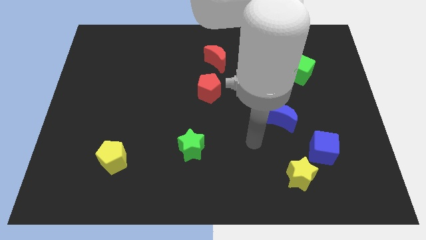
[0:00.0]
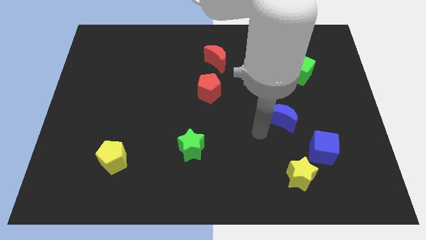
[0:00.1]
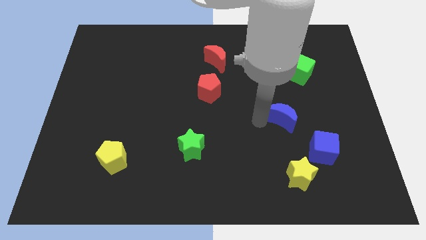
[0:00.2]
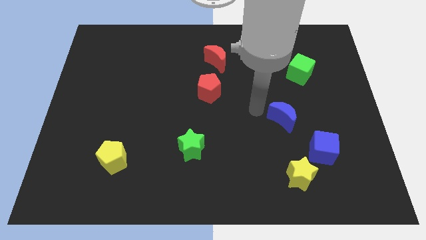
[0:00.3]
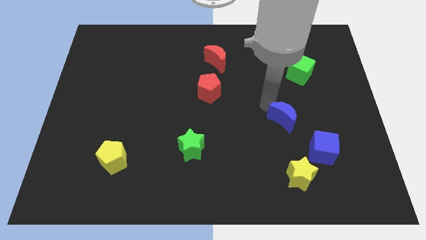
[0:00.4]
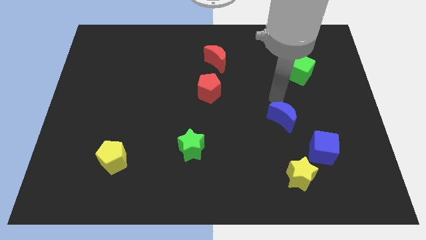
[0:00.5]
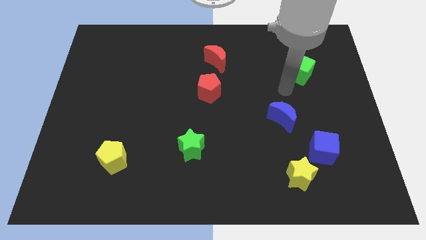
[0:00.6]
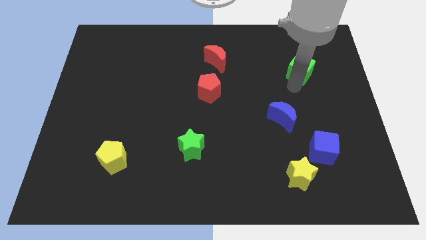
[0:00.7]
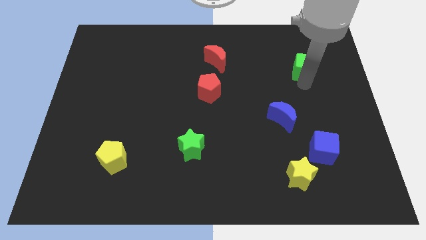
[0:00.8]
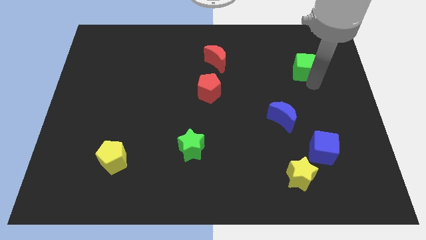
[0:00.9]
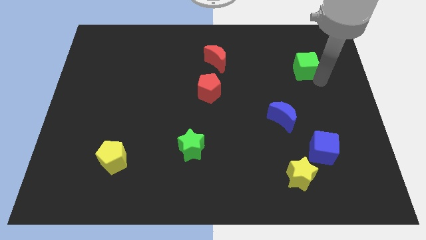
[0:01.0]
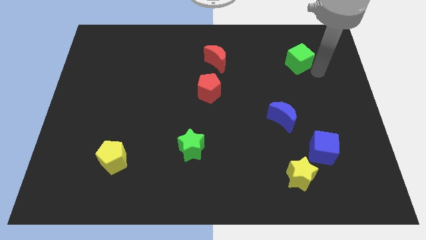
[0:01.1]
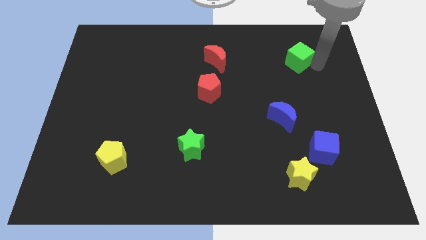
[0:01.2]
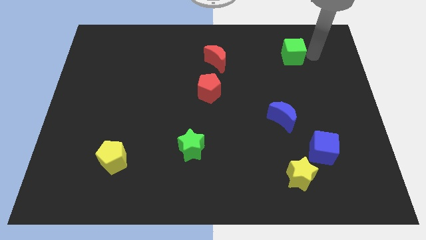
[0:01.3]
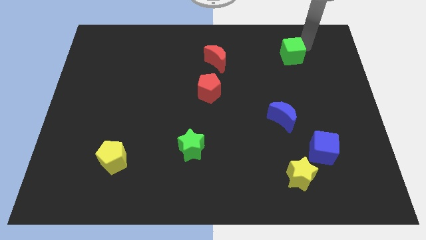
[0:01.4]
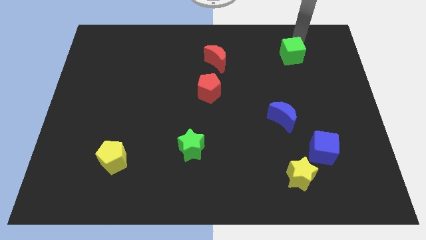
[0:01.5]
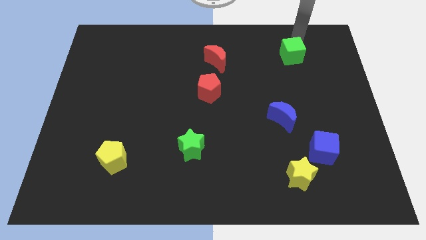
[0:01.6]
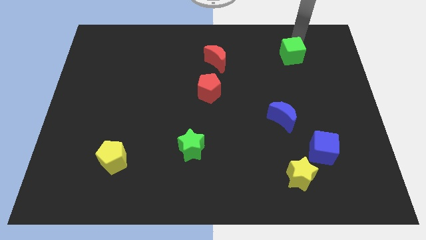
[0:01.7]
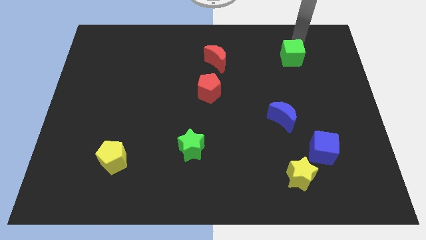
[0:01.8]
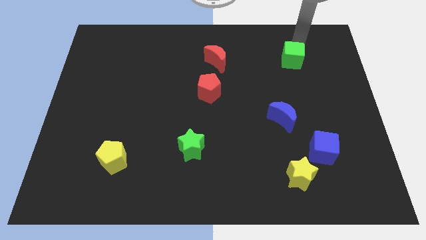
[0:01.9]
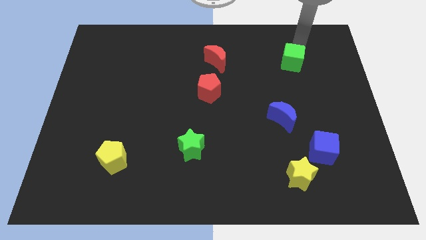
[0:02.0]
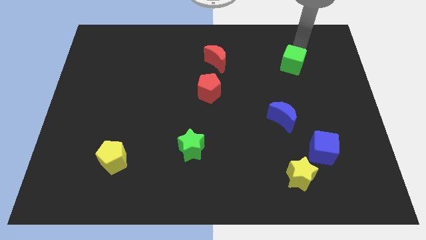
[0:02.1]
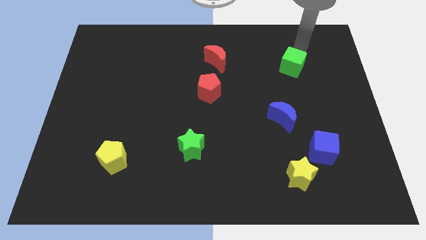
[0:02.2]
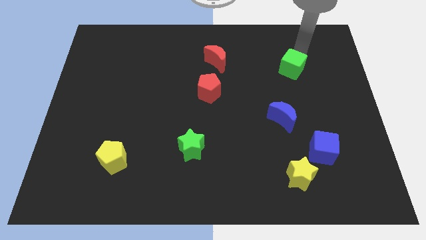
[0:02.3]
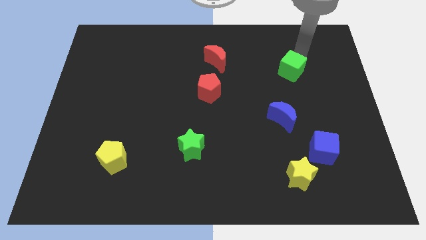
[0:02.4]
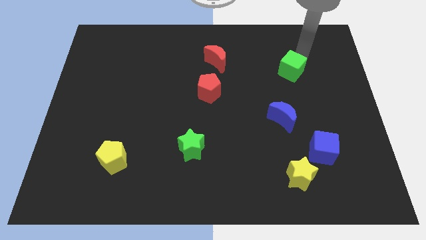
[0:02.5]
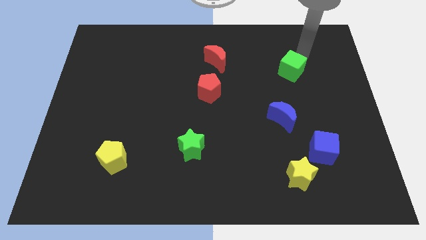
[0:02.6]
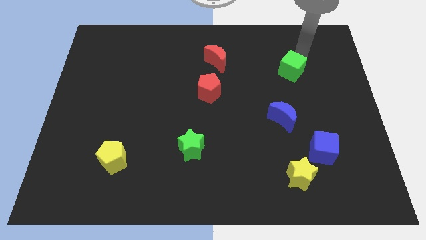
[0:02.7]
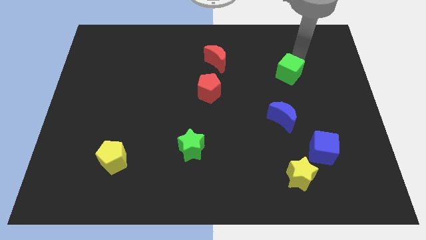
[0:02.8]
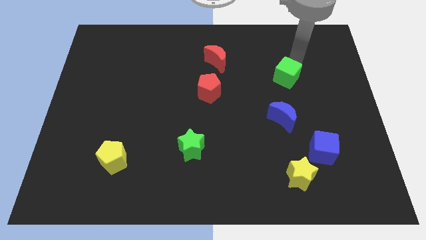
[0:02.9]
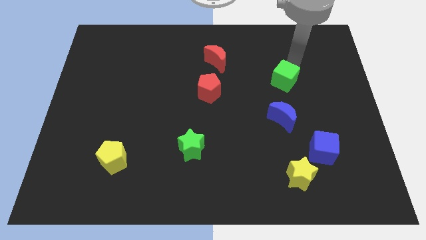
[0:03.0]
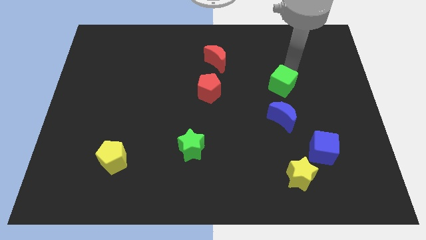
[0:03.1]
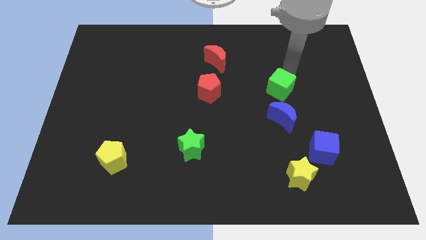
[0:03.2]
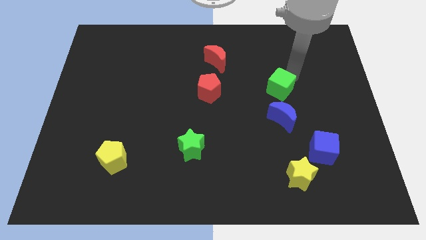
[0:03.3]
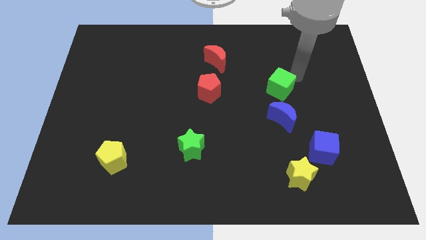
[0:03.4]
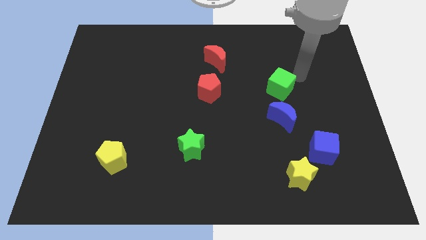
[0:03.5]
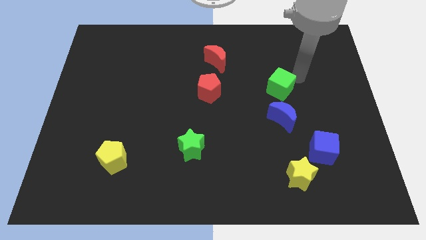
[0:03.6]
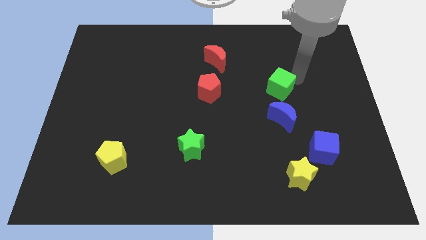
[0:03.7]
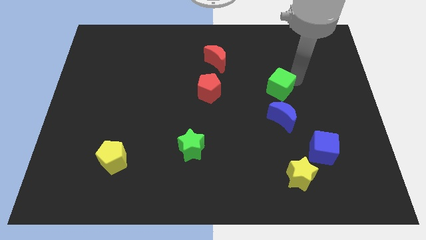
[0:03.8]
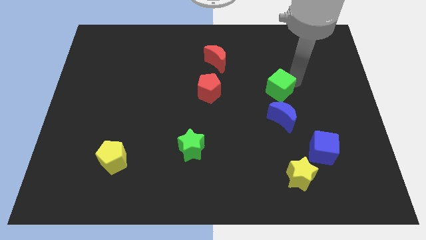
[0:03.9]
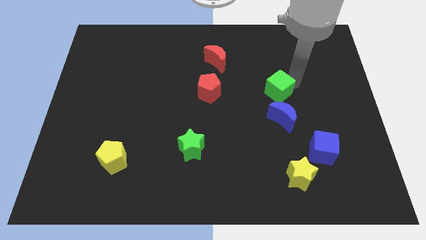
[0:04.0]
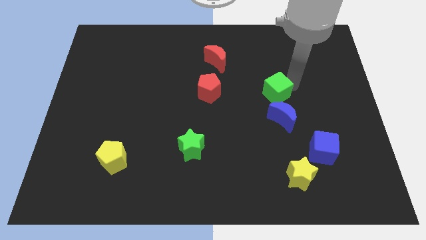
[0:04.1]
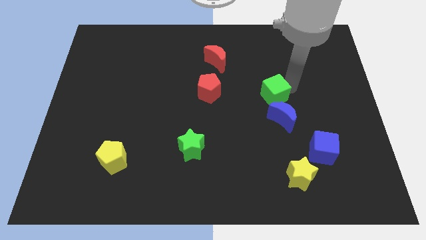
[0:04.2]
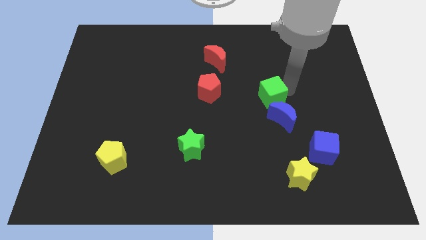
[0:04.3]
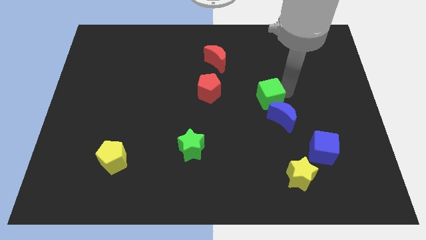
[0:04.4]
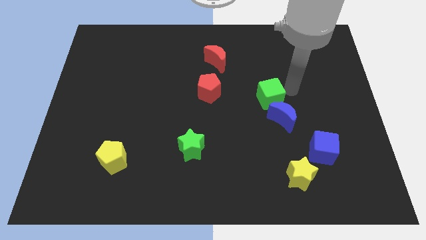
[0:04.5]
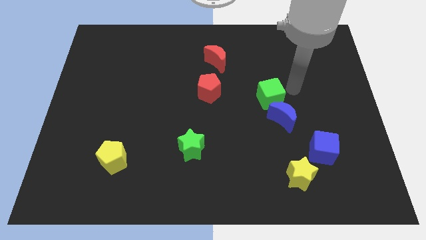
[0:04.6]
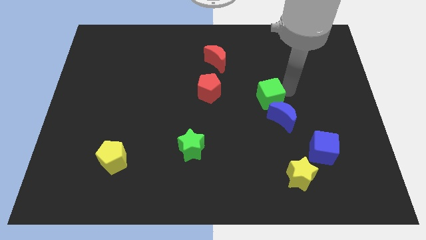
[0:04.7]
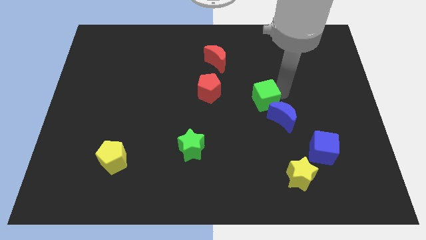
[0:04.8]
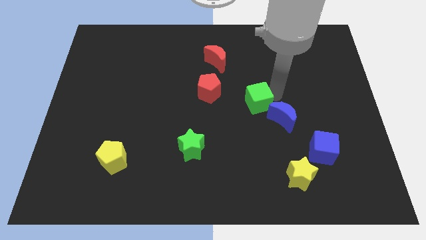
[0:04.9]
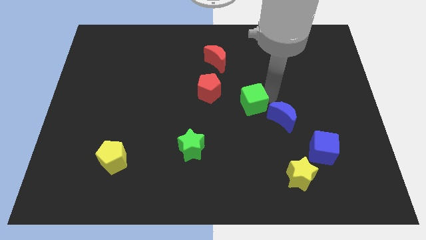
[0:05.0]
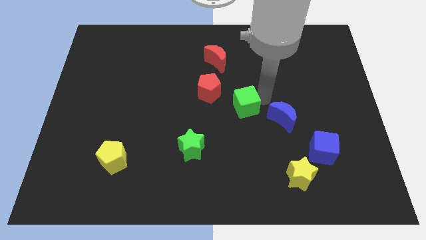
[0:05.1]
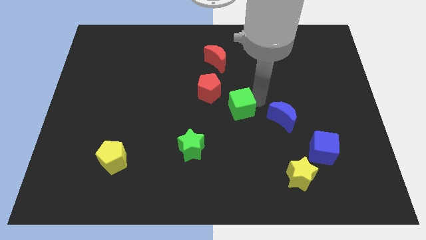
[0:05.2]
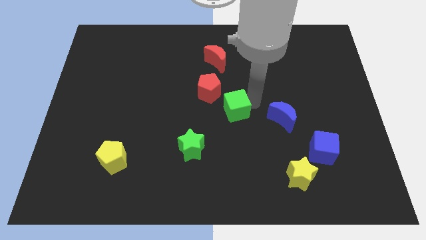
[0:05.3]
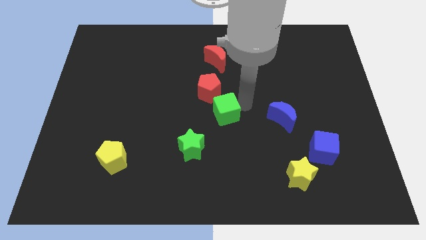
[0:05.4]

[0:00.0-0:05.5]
put the green cube below the red pentagon

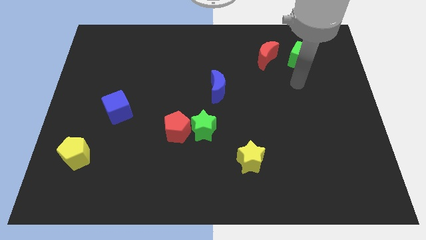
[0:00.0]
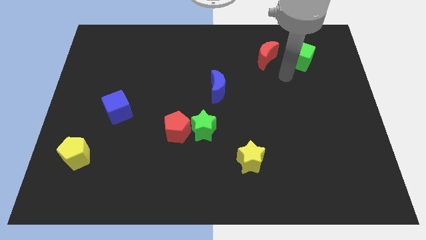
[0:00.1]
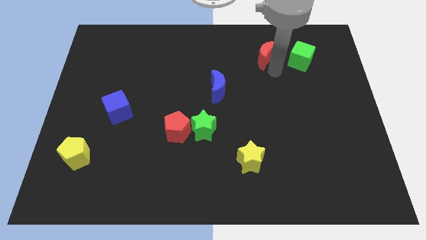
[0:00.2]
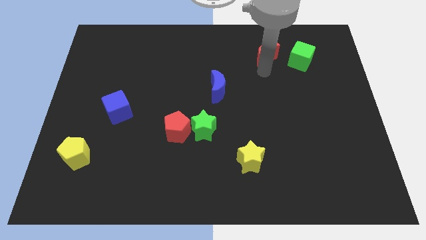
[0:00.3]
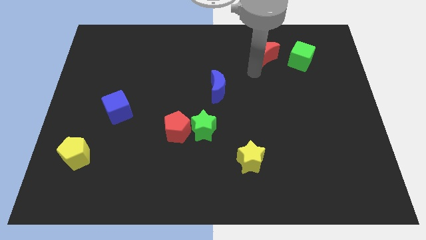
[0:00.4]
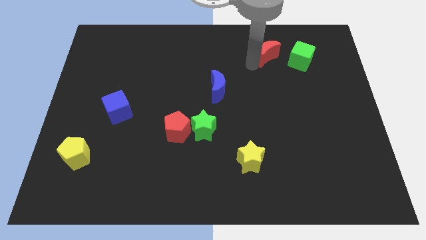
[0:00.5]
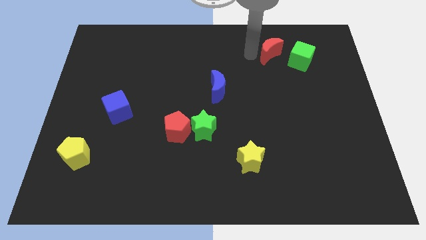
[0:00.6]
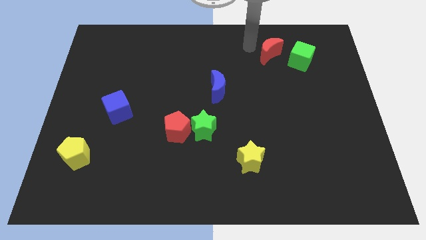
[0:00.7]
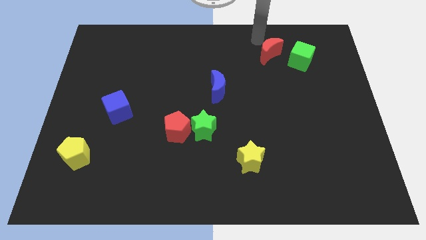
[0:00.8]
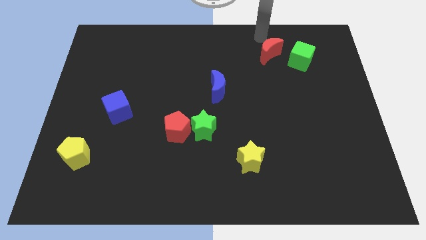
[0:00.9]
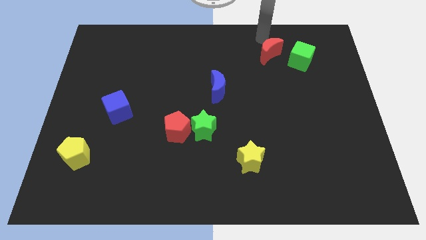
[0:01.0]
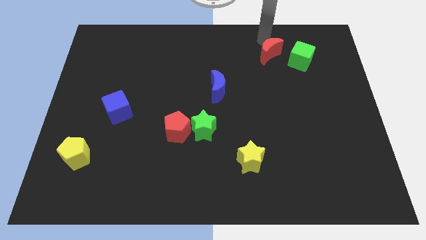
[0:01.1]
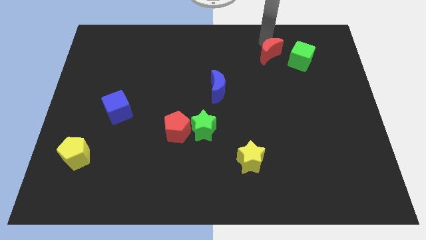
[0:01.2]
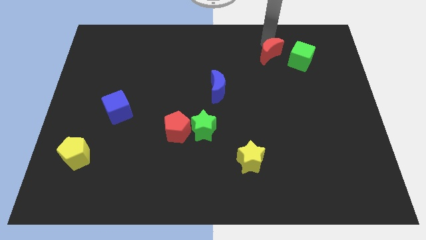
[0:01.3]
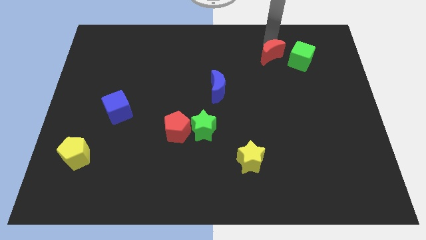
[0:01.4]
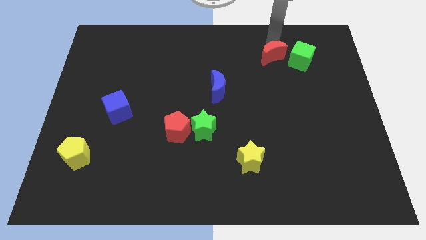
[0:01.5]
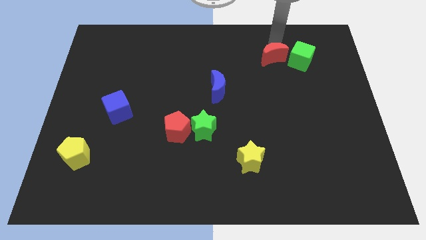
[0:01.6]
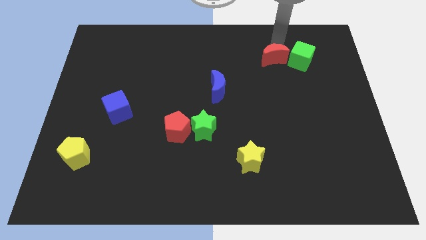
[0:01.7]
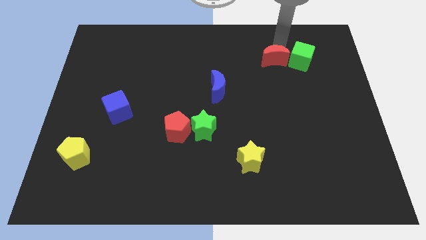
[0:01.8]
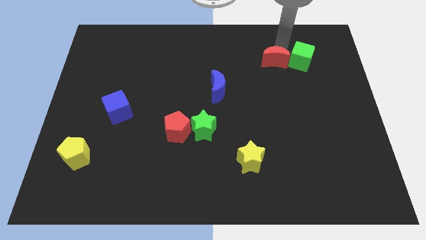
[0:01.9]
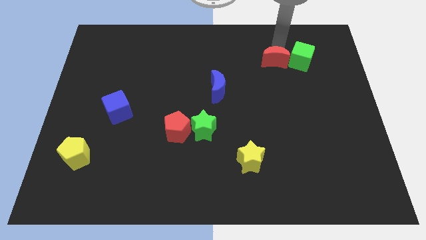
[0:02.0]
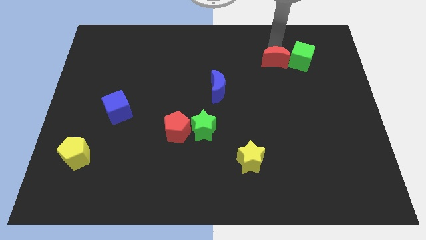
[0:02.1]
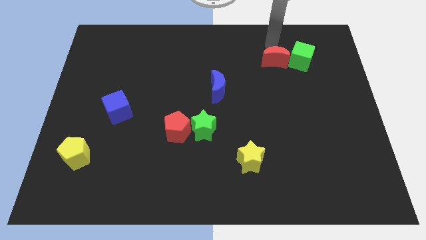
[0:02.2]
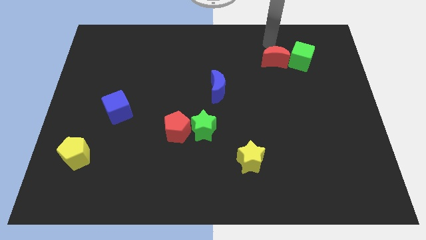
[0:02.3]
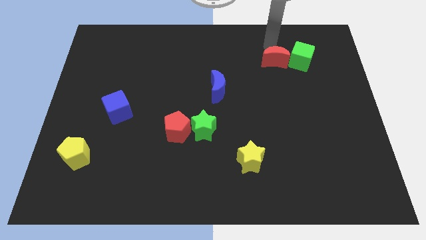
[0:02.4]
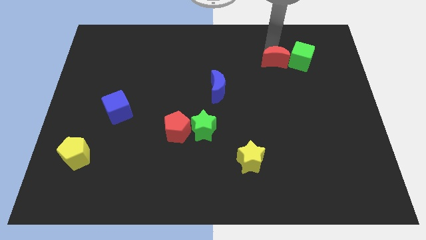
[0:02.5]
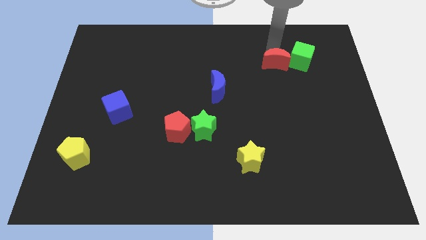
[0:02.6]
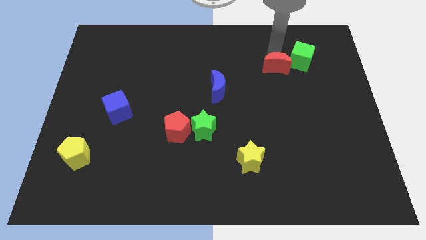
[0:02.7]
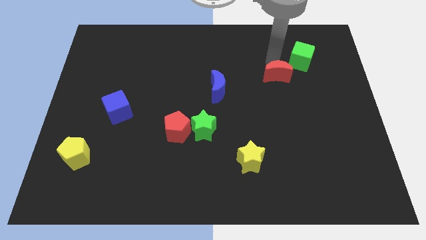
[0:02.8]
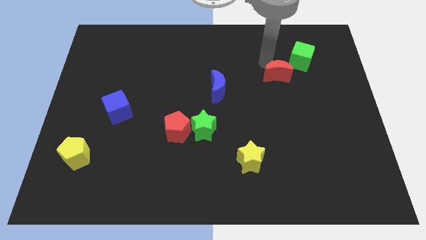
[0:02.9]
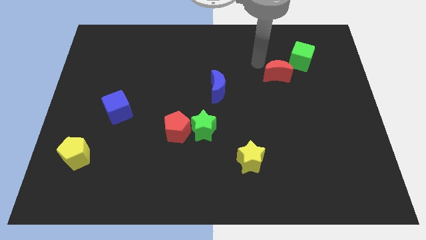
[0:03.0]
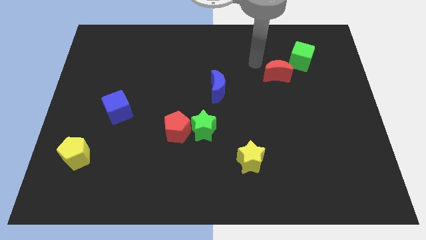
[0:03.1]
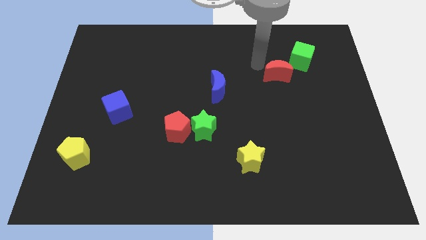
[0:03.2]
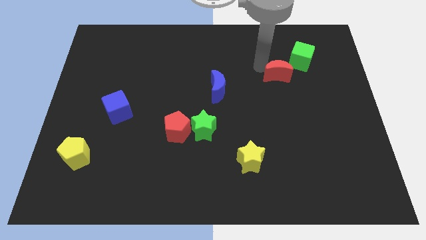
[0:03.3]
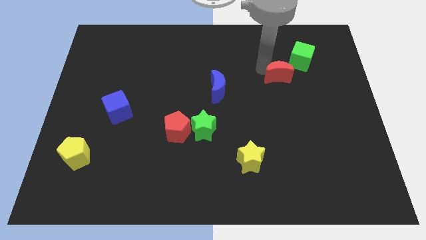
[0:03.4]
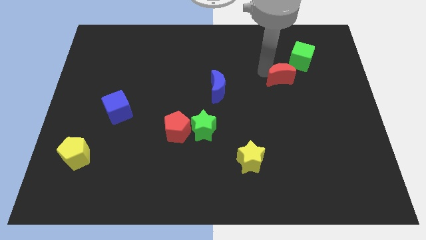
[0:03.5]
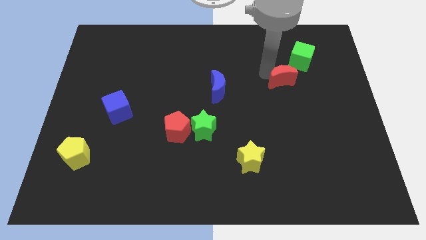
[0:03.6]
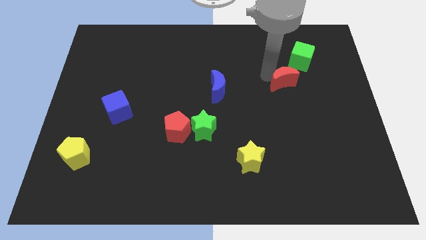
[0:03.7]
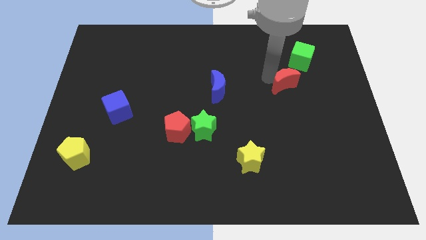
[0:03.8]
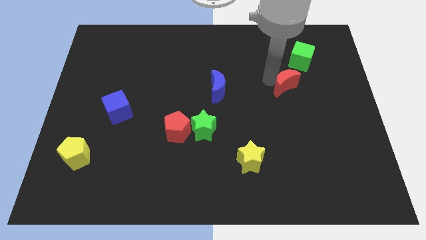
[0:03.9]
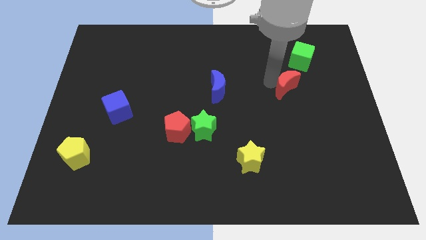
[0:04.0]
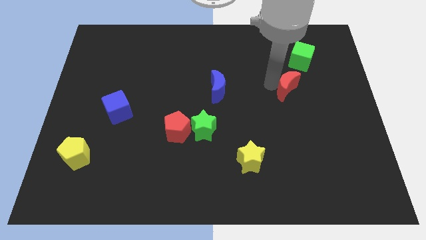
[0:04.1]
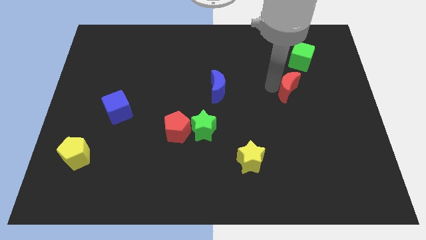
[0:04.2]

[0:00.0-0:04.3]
put the red moon to the bottom side of the green cube
